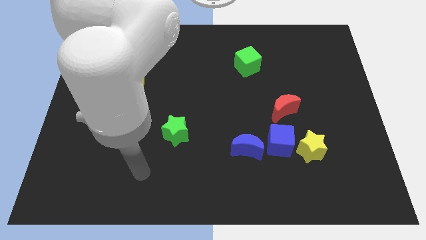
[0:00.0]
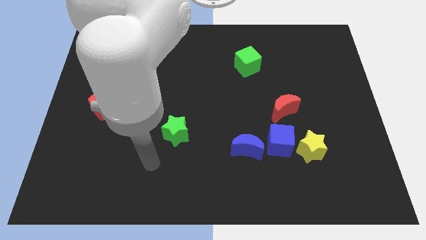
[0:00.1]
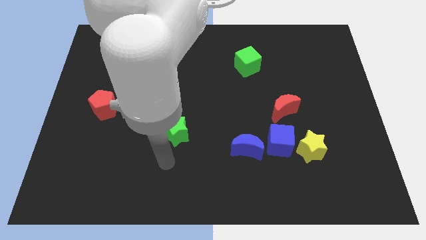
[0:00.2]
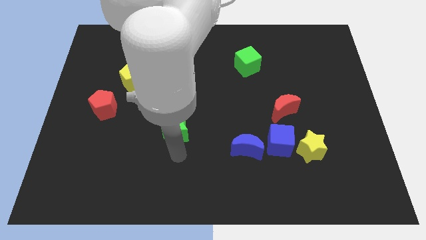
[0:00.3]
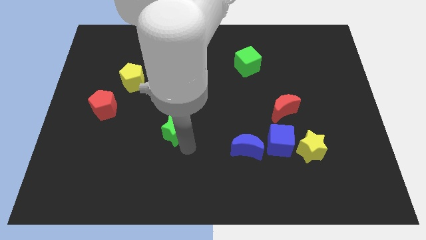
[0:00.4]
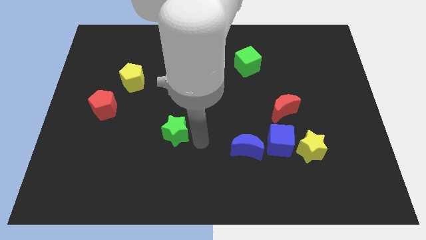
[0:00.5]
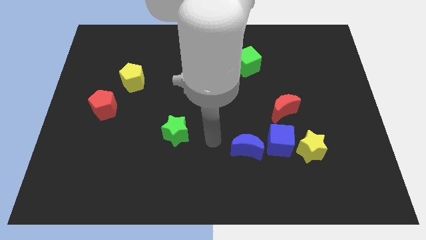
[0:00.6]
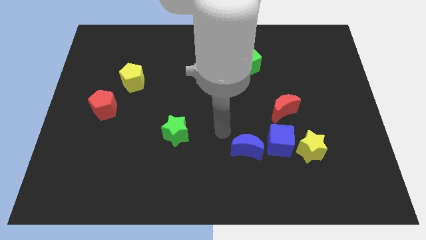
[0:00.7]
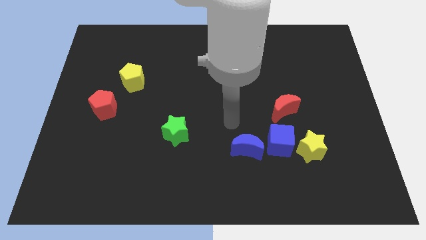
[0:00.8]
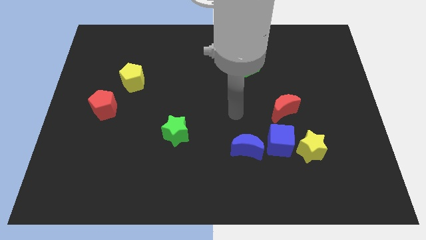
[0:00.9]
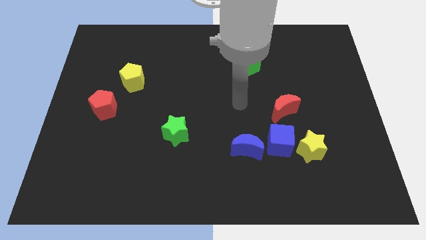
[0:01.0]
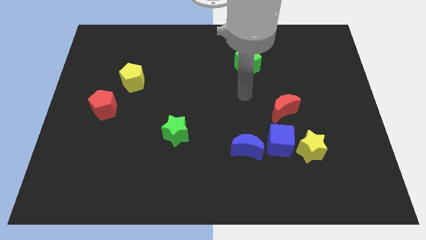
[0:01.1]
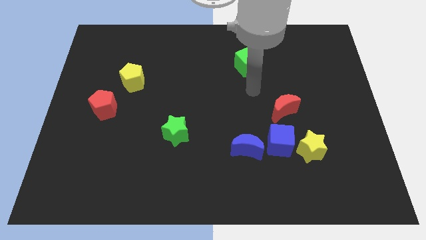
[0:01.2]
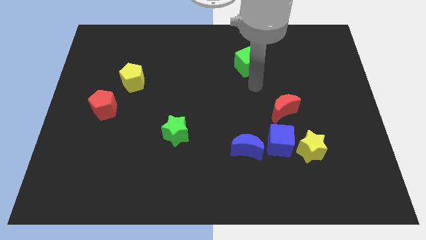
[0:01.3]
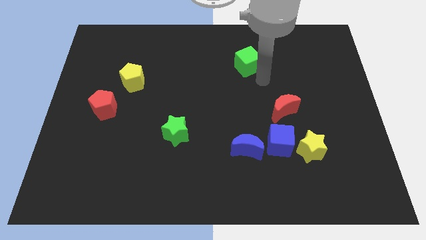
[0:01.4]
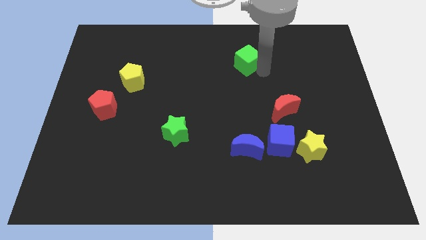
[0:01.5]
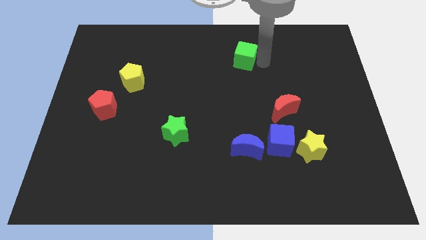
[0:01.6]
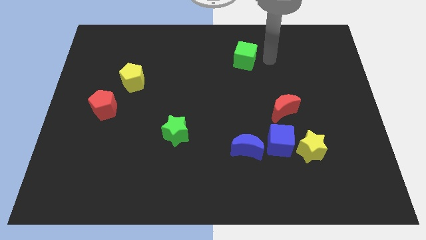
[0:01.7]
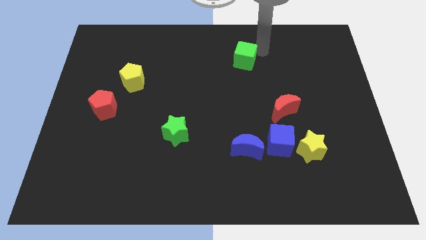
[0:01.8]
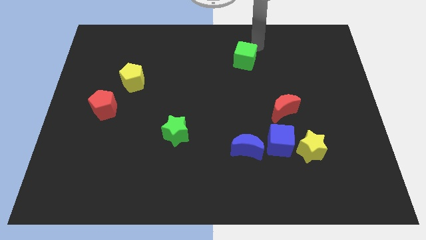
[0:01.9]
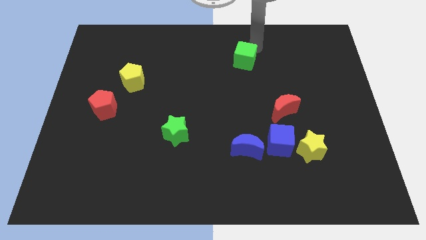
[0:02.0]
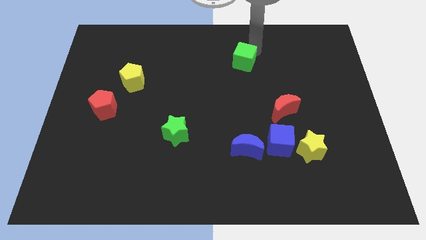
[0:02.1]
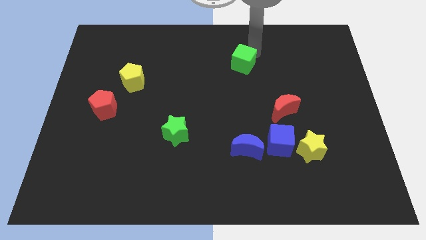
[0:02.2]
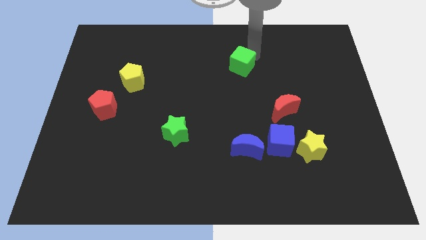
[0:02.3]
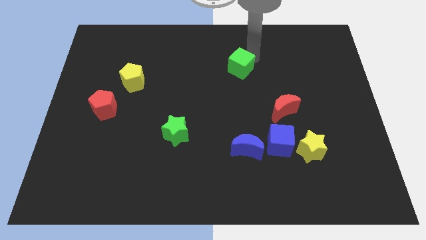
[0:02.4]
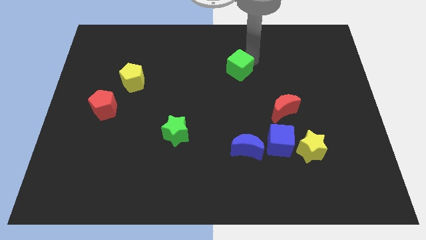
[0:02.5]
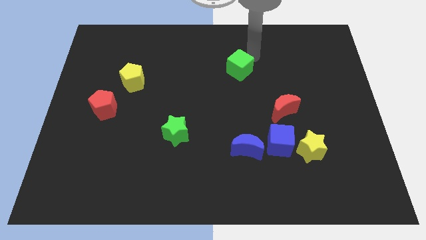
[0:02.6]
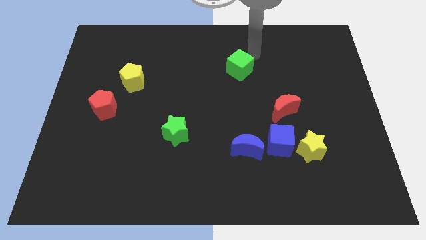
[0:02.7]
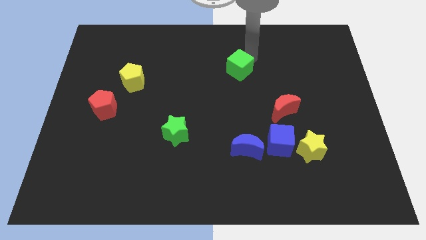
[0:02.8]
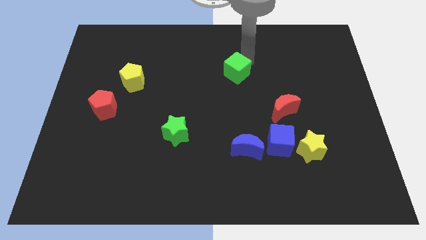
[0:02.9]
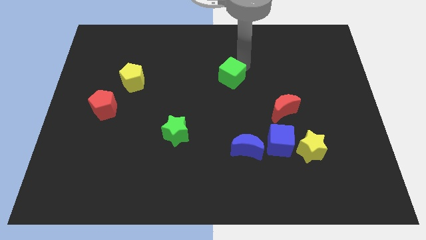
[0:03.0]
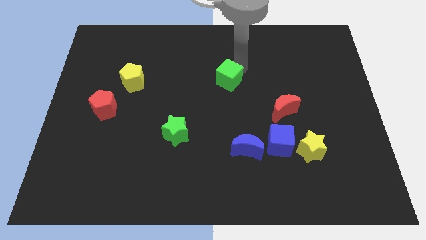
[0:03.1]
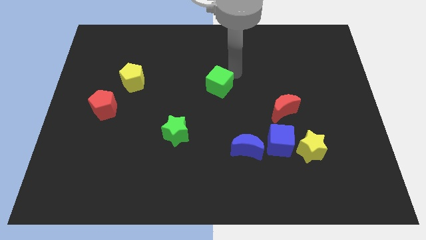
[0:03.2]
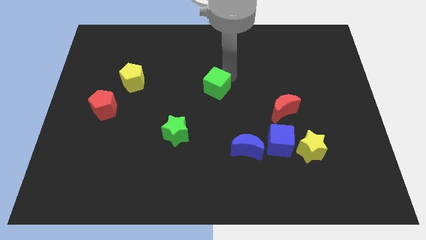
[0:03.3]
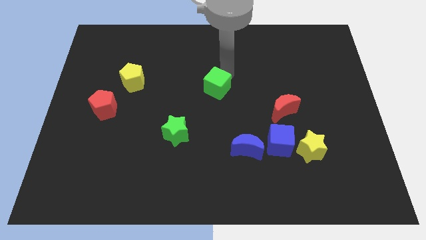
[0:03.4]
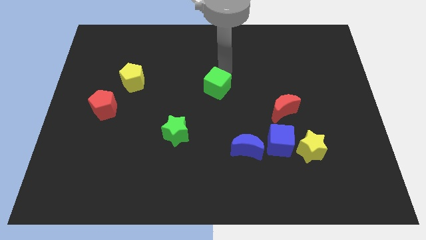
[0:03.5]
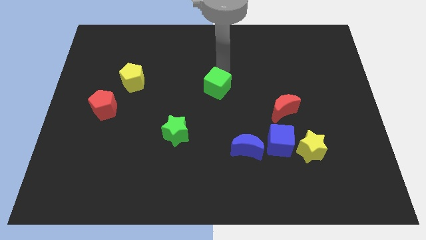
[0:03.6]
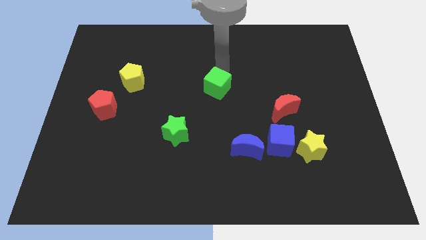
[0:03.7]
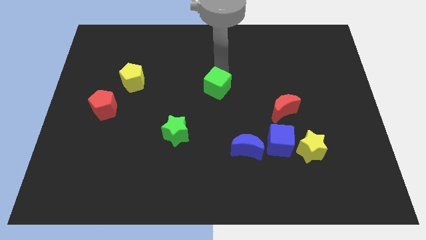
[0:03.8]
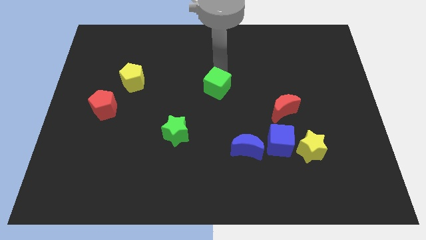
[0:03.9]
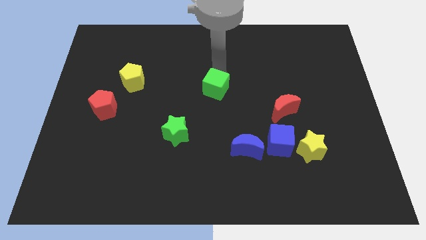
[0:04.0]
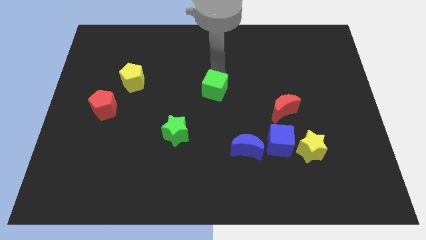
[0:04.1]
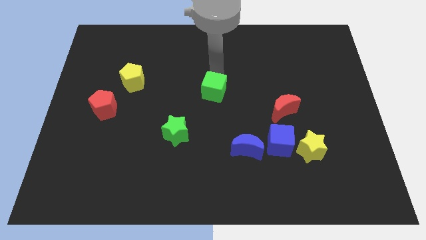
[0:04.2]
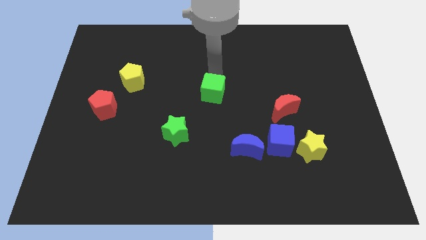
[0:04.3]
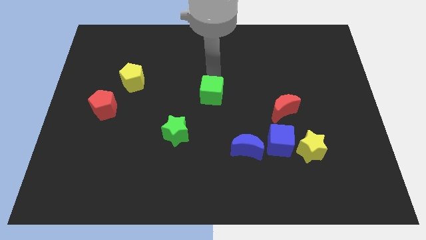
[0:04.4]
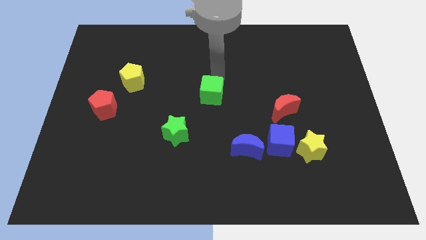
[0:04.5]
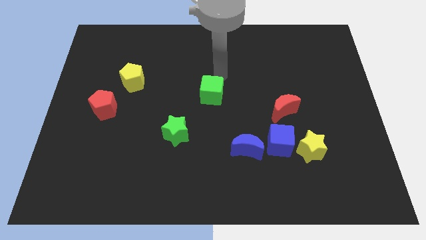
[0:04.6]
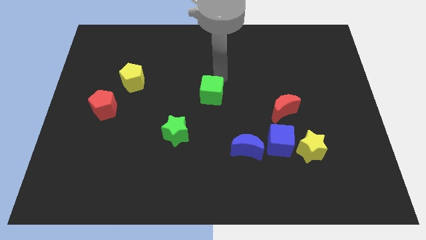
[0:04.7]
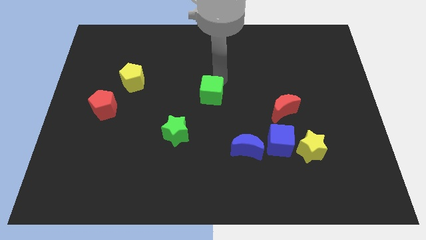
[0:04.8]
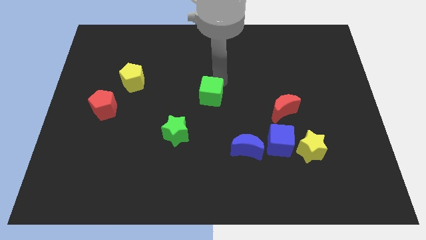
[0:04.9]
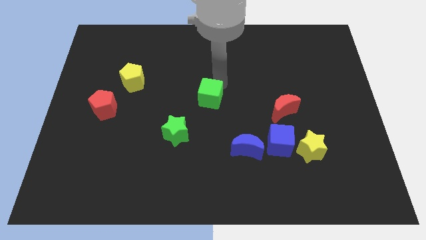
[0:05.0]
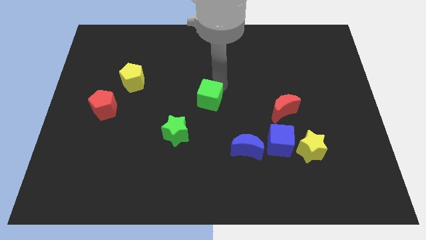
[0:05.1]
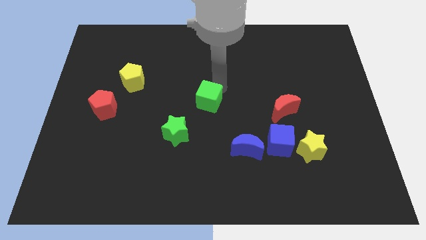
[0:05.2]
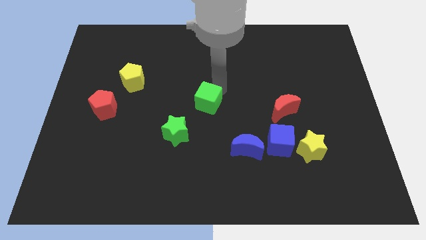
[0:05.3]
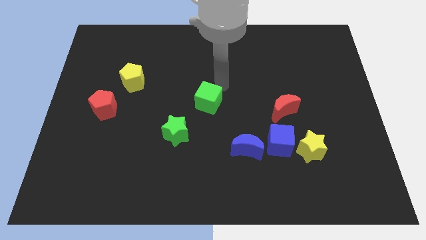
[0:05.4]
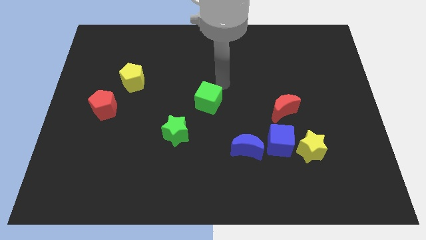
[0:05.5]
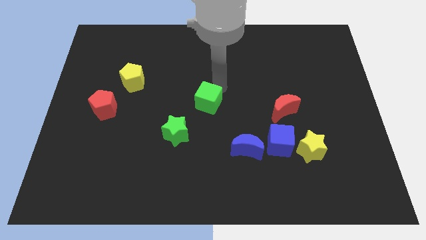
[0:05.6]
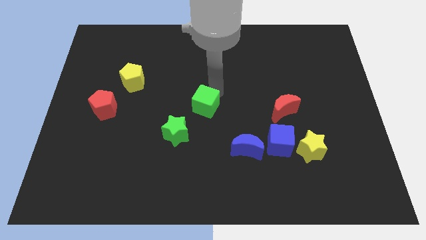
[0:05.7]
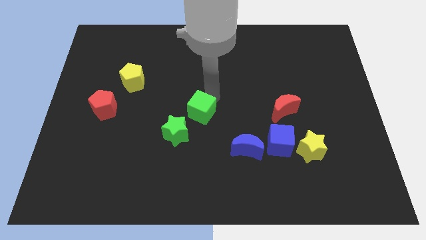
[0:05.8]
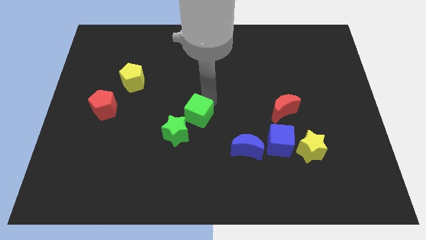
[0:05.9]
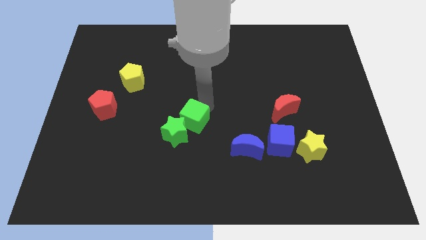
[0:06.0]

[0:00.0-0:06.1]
put the green cube next to the green star

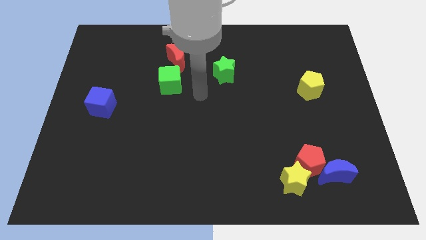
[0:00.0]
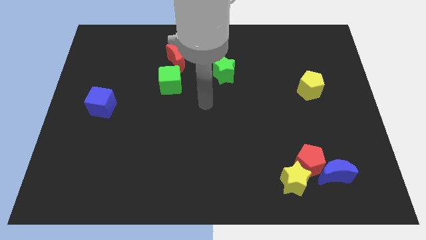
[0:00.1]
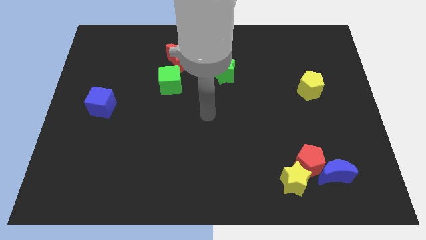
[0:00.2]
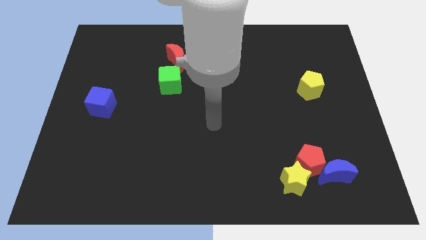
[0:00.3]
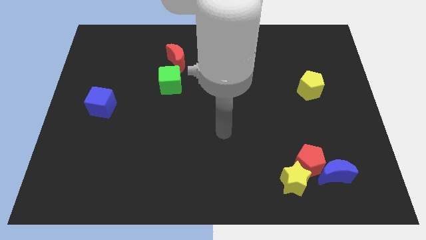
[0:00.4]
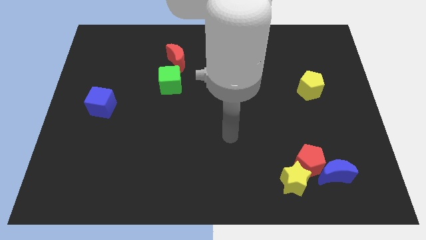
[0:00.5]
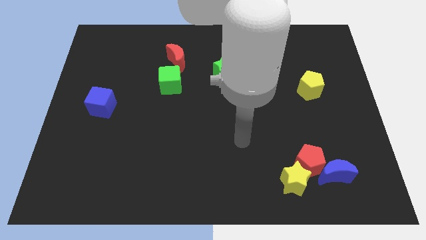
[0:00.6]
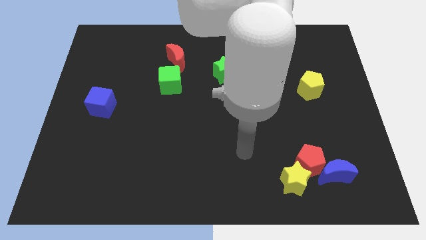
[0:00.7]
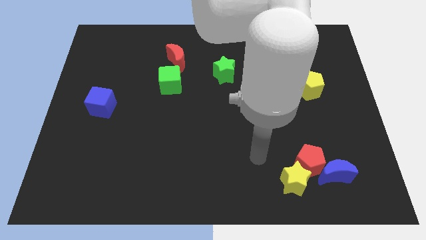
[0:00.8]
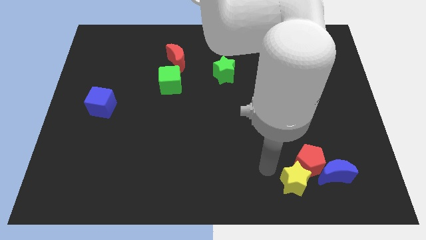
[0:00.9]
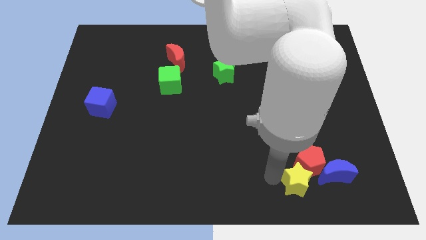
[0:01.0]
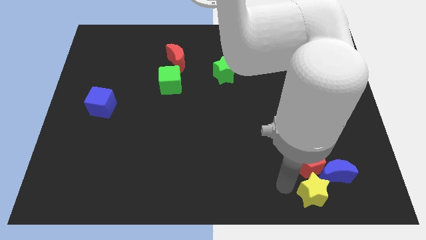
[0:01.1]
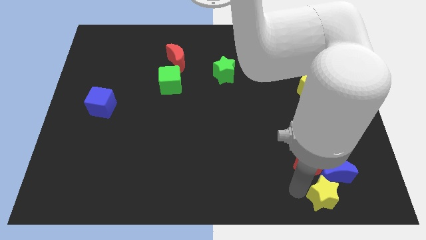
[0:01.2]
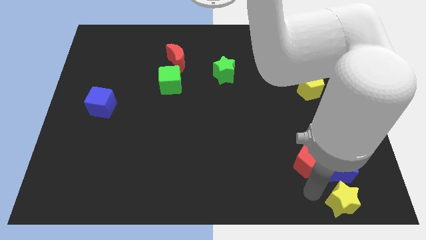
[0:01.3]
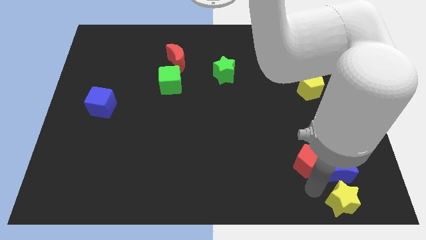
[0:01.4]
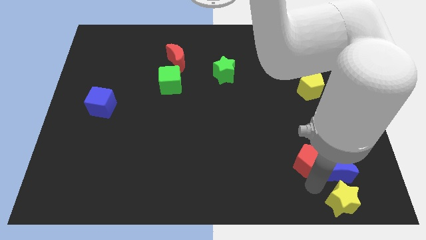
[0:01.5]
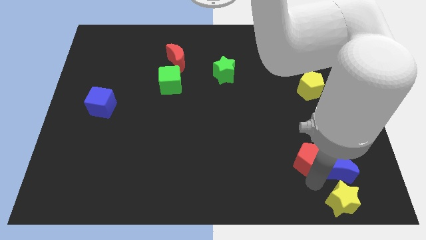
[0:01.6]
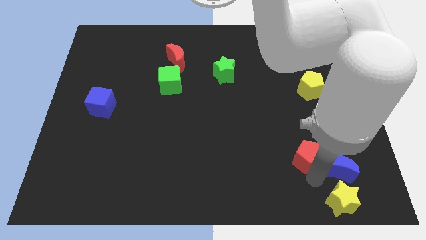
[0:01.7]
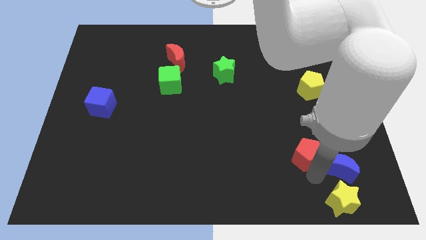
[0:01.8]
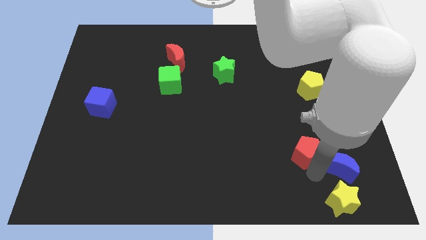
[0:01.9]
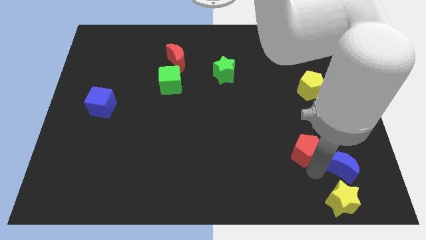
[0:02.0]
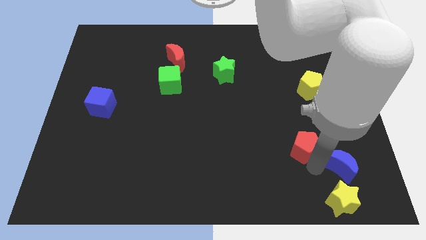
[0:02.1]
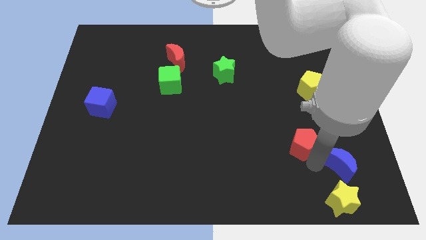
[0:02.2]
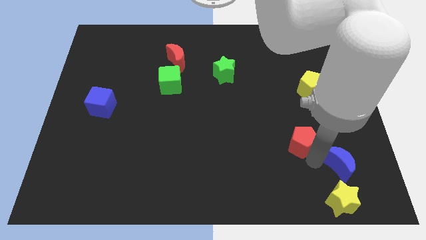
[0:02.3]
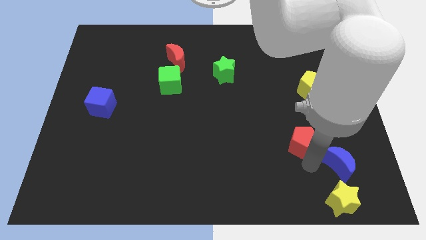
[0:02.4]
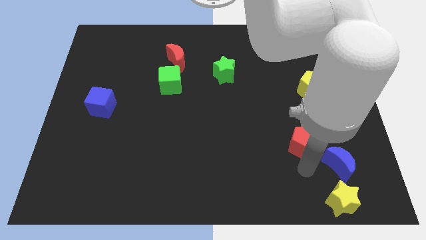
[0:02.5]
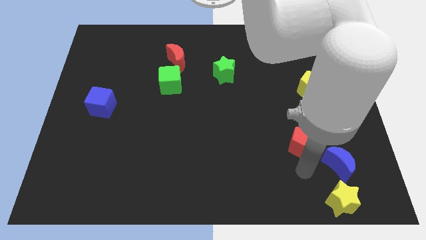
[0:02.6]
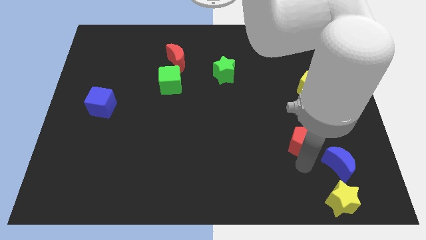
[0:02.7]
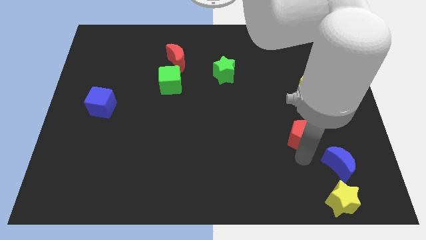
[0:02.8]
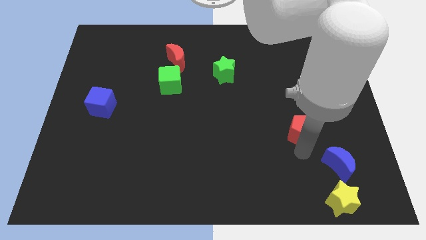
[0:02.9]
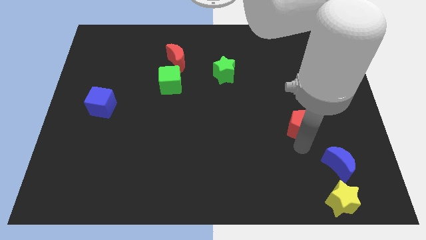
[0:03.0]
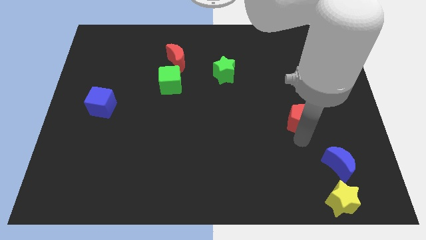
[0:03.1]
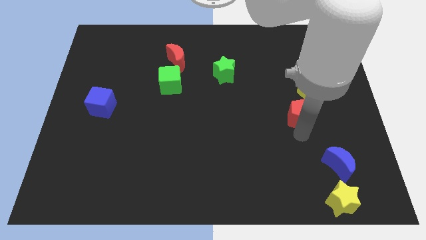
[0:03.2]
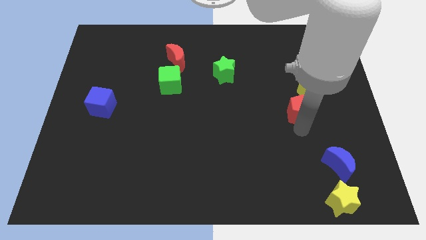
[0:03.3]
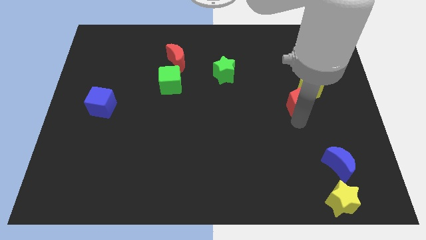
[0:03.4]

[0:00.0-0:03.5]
move the red pentagon to the yellow pentagon
